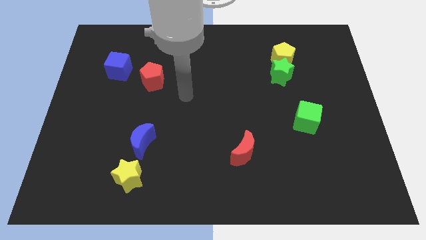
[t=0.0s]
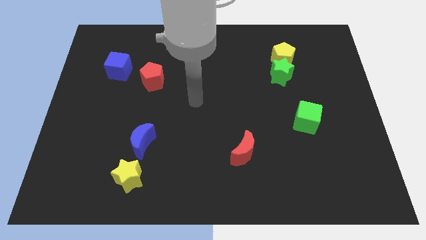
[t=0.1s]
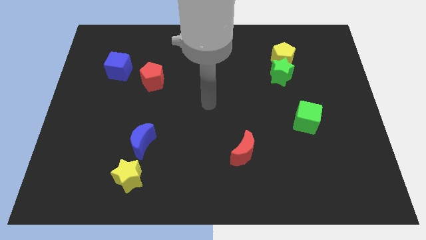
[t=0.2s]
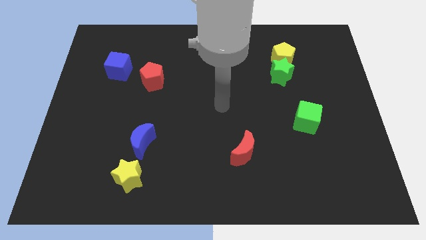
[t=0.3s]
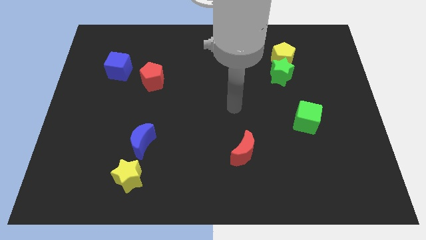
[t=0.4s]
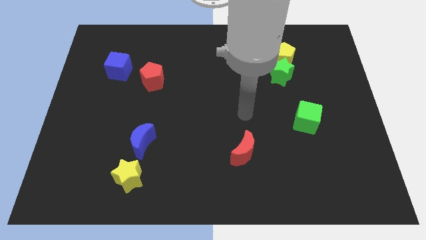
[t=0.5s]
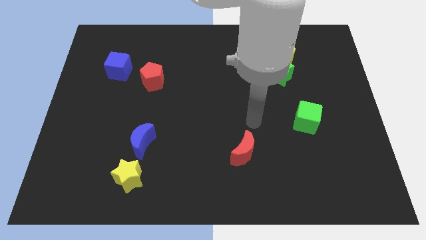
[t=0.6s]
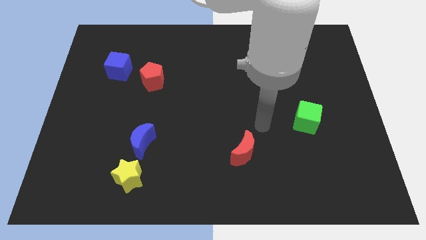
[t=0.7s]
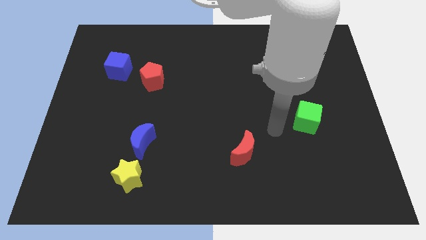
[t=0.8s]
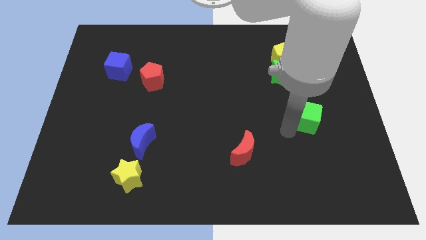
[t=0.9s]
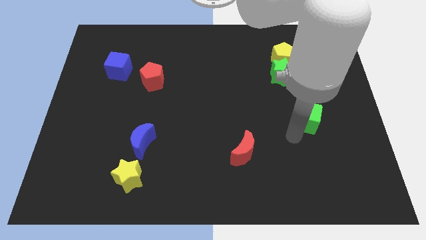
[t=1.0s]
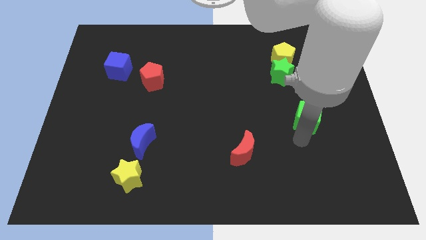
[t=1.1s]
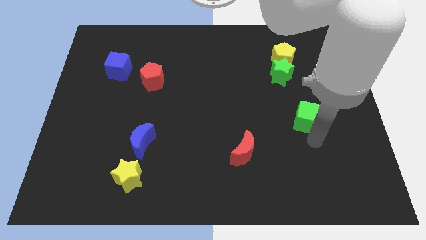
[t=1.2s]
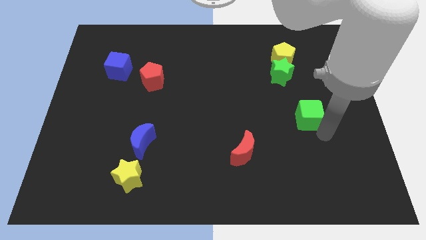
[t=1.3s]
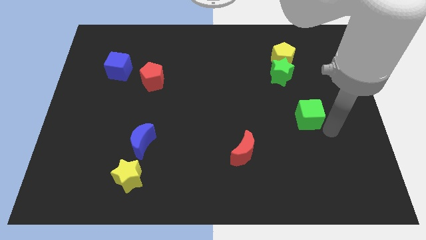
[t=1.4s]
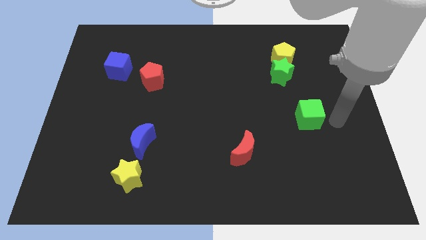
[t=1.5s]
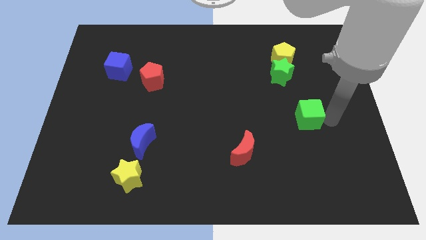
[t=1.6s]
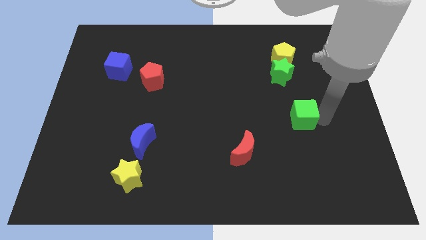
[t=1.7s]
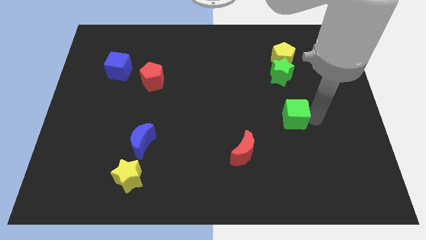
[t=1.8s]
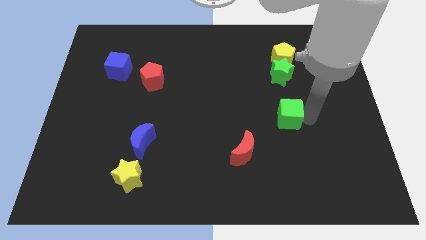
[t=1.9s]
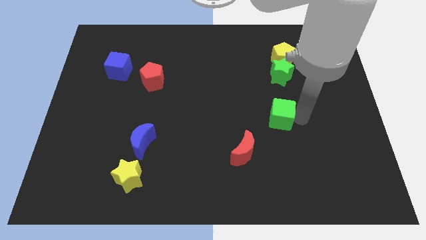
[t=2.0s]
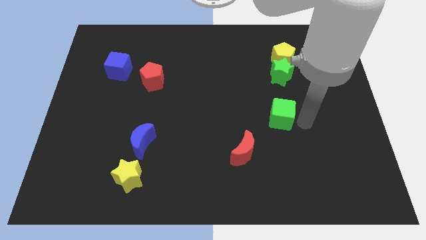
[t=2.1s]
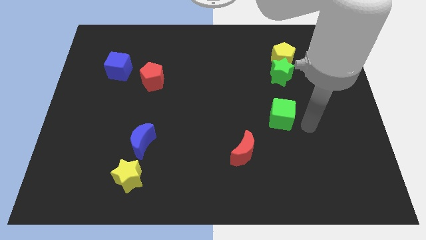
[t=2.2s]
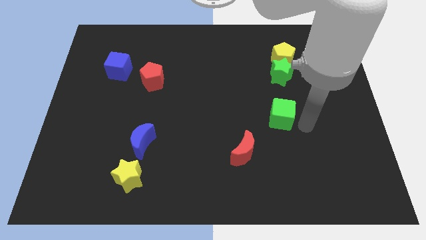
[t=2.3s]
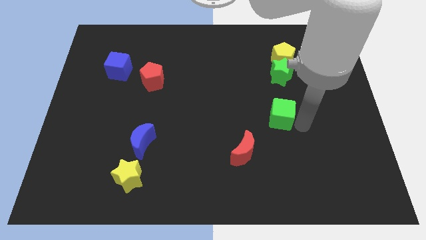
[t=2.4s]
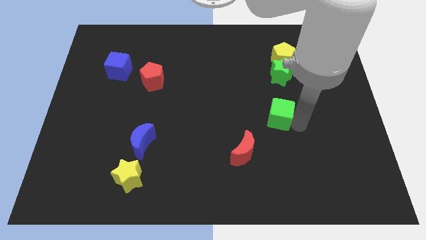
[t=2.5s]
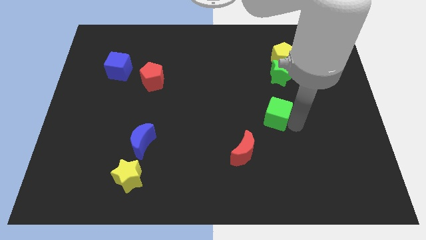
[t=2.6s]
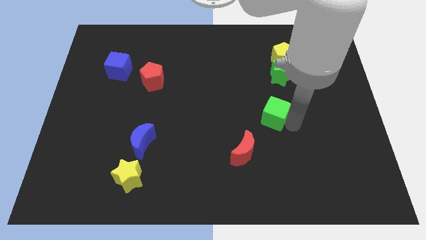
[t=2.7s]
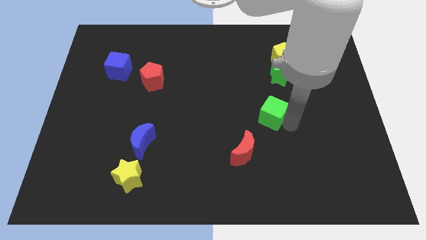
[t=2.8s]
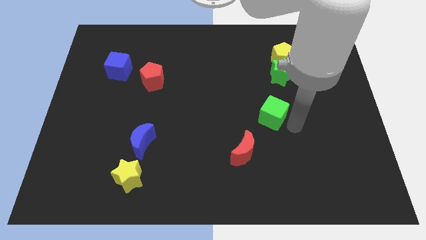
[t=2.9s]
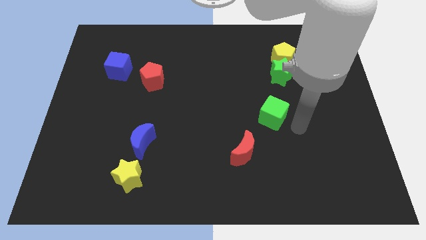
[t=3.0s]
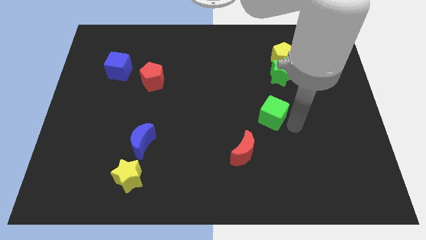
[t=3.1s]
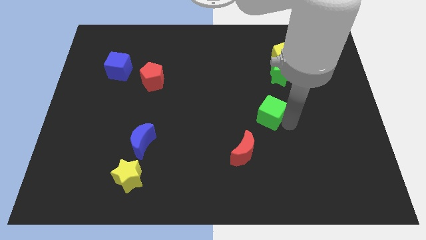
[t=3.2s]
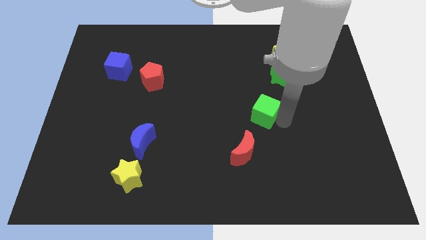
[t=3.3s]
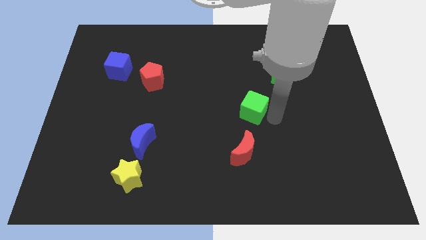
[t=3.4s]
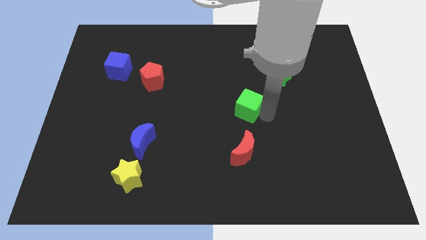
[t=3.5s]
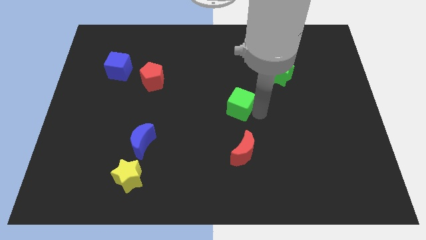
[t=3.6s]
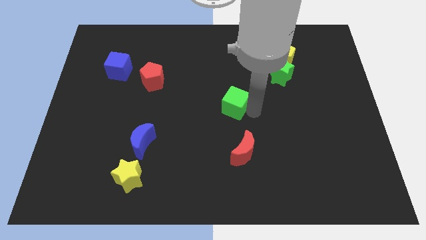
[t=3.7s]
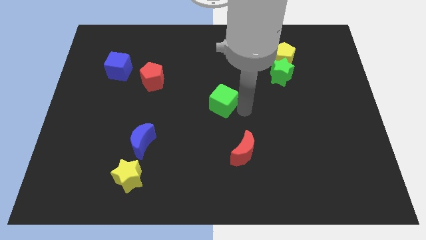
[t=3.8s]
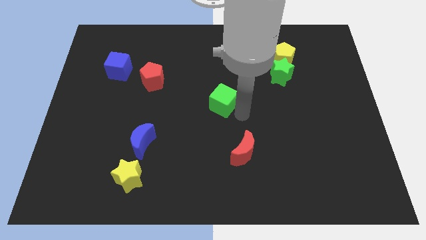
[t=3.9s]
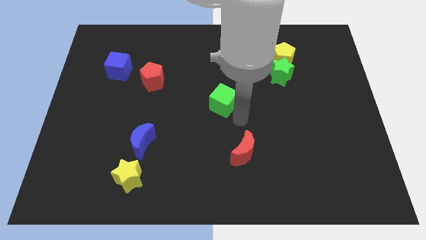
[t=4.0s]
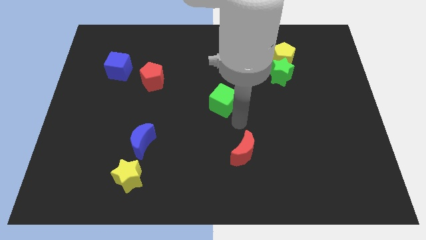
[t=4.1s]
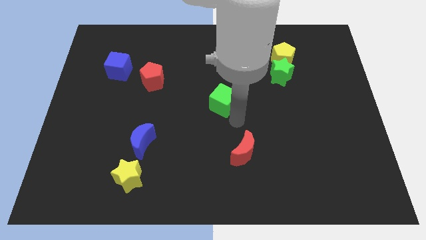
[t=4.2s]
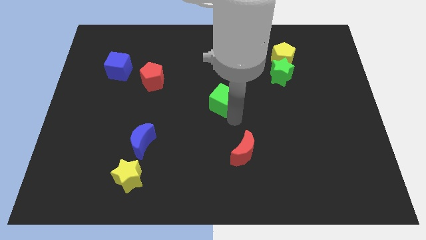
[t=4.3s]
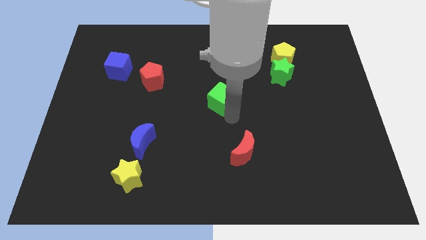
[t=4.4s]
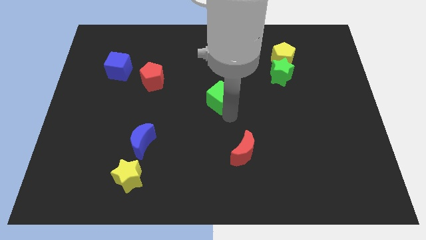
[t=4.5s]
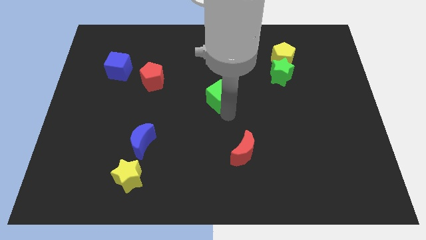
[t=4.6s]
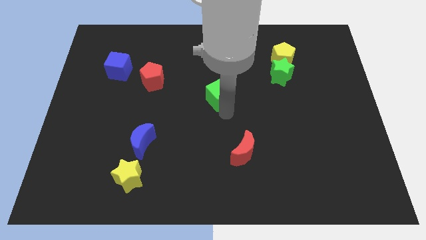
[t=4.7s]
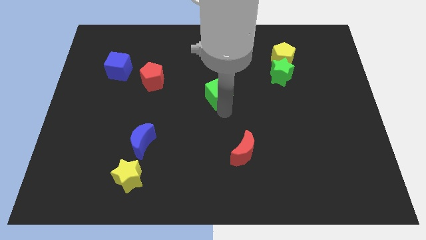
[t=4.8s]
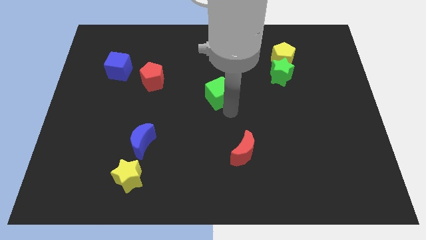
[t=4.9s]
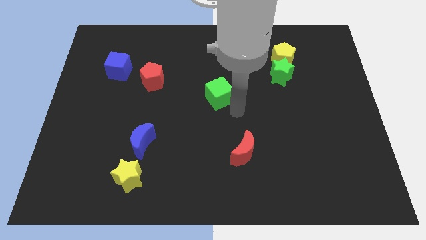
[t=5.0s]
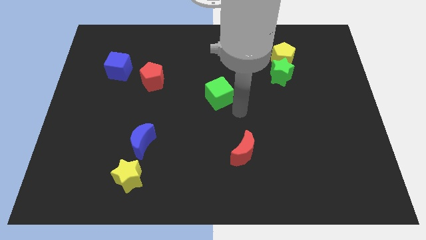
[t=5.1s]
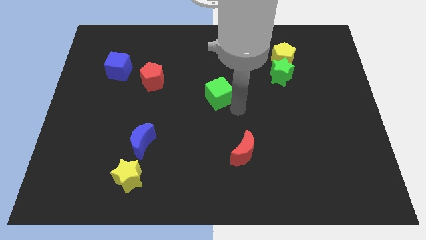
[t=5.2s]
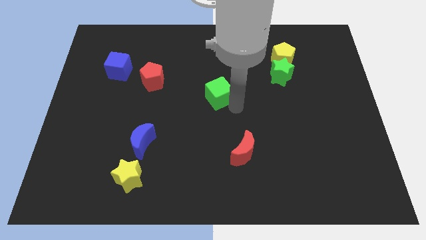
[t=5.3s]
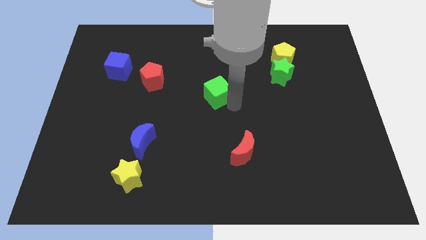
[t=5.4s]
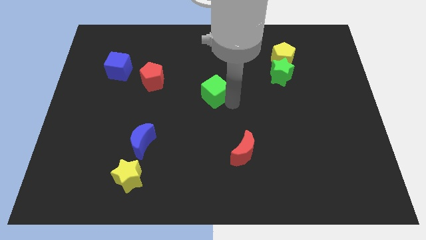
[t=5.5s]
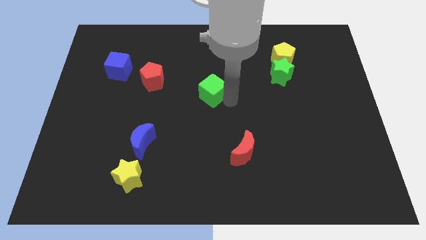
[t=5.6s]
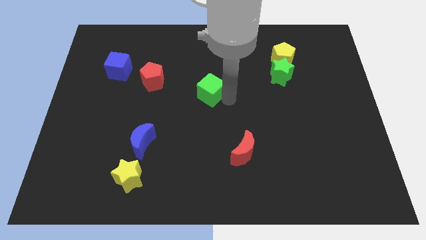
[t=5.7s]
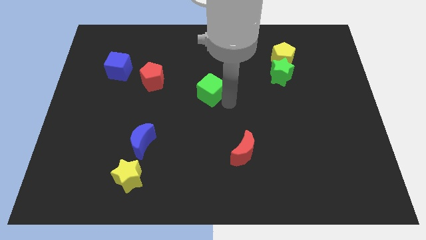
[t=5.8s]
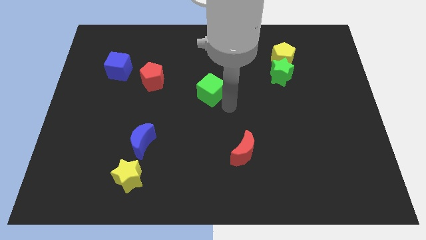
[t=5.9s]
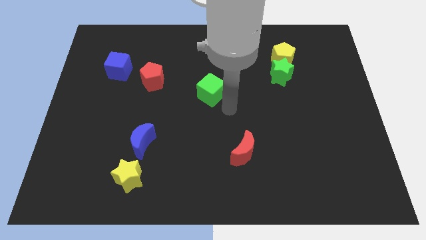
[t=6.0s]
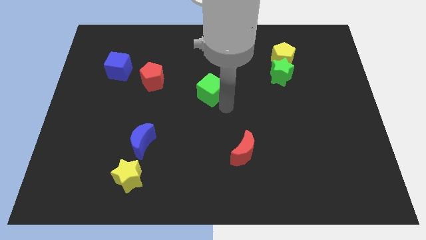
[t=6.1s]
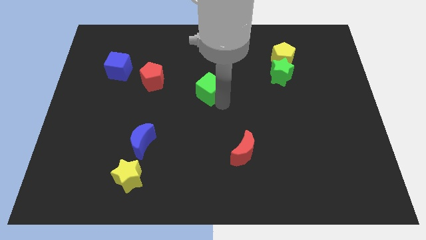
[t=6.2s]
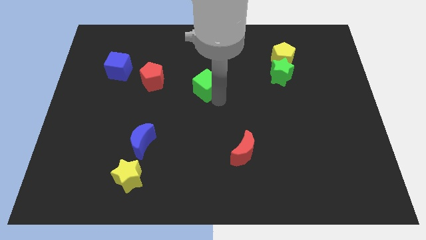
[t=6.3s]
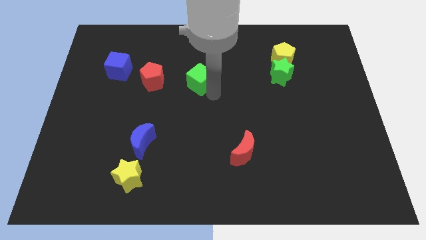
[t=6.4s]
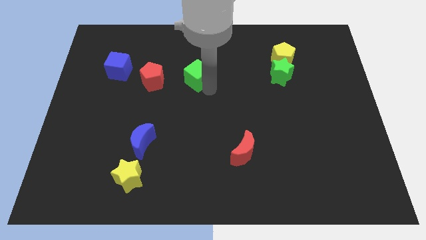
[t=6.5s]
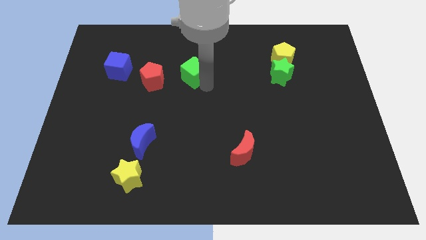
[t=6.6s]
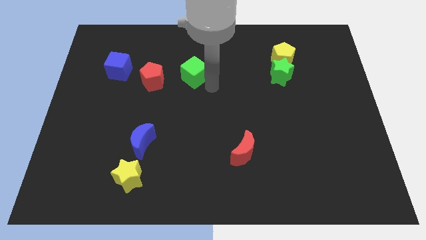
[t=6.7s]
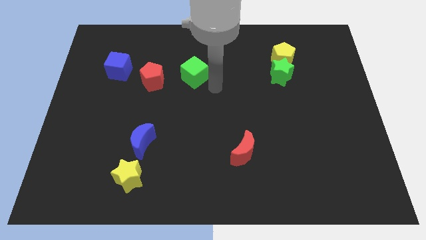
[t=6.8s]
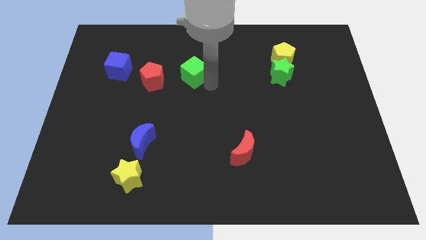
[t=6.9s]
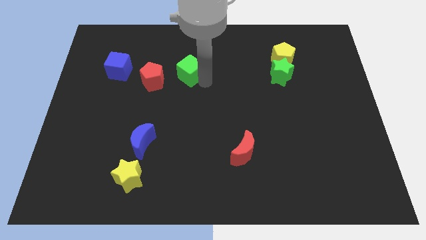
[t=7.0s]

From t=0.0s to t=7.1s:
slide the green cube diagonally up and to the right of the red pentagon

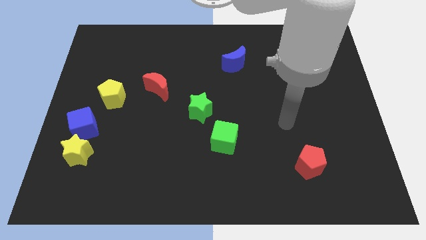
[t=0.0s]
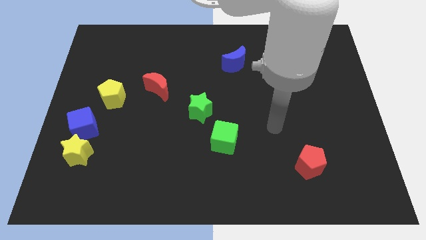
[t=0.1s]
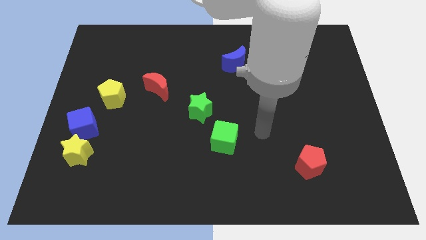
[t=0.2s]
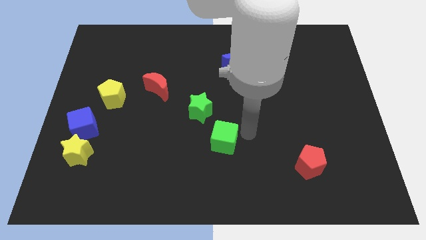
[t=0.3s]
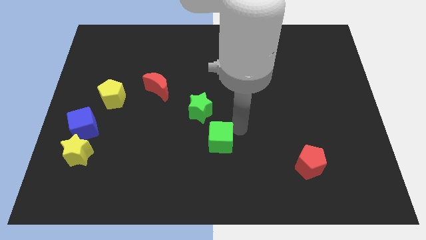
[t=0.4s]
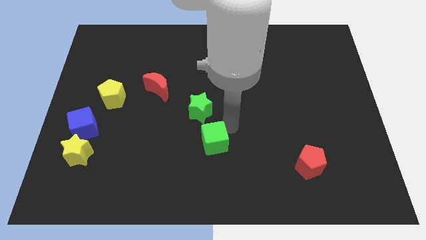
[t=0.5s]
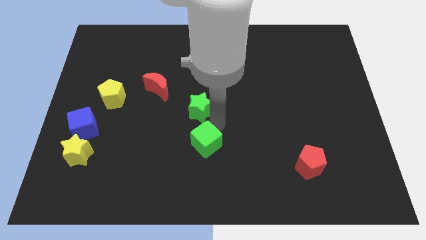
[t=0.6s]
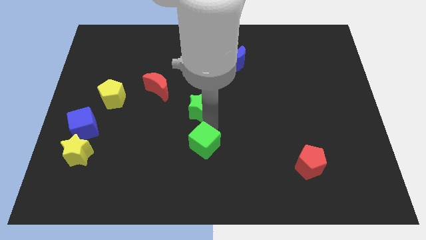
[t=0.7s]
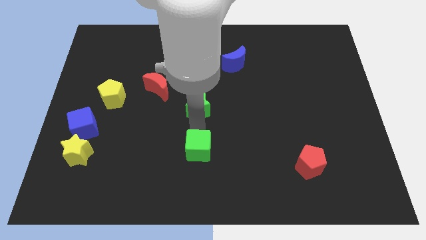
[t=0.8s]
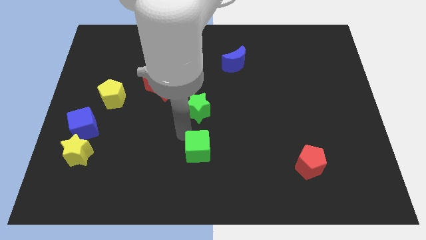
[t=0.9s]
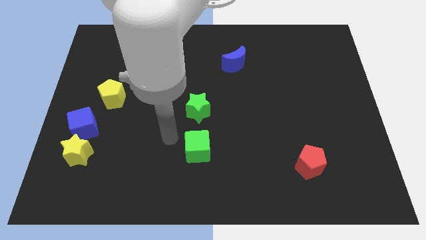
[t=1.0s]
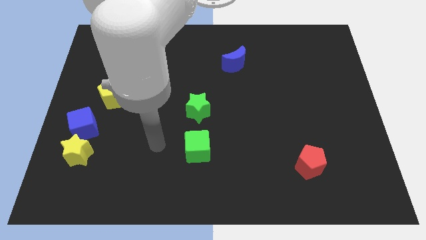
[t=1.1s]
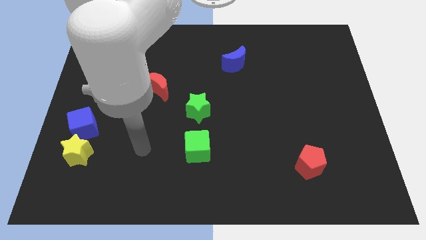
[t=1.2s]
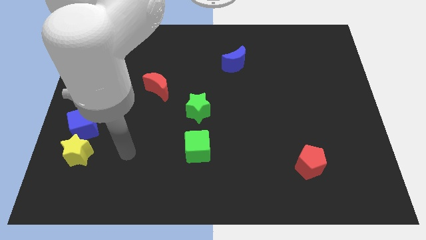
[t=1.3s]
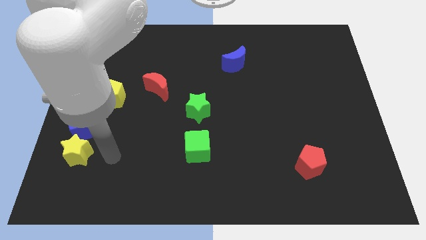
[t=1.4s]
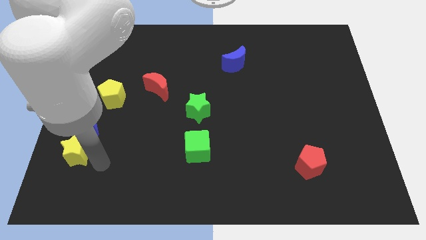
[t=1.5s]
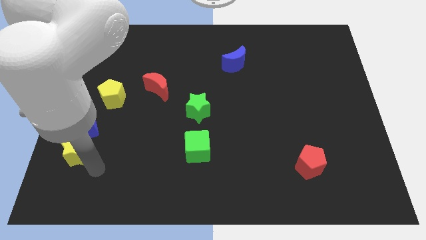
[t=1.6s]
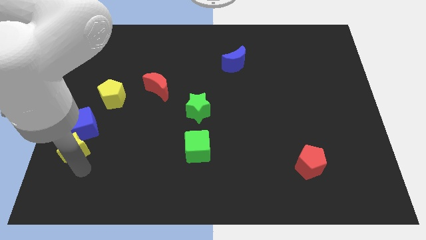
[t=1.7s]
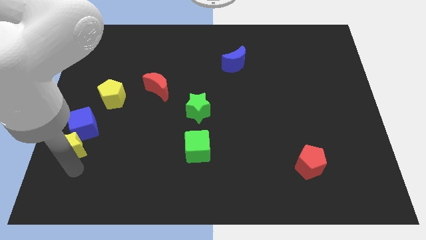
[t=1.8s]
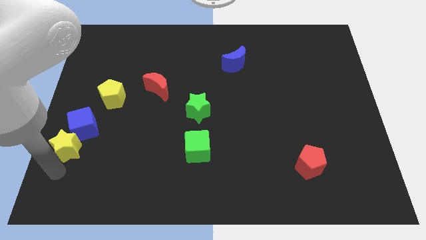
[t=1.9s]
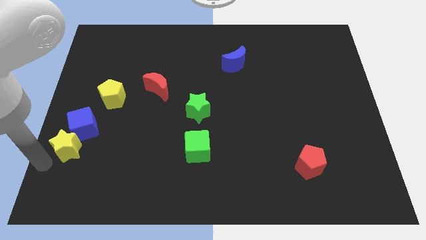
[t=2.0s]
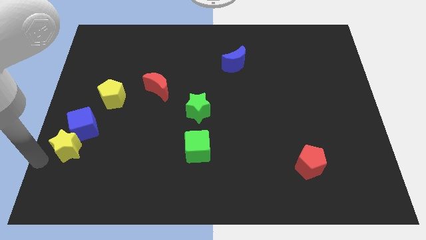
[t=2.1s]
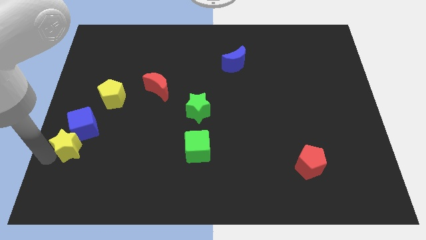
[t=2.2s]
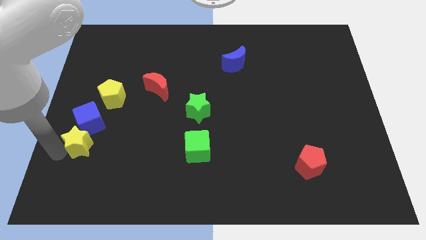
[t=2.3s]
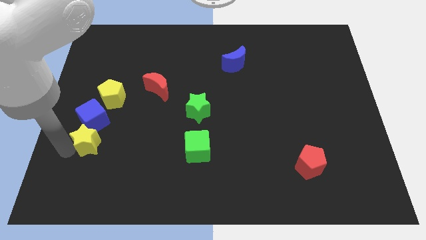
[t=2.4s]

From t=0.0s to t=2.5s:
slide the yellow star below the yellow pentagon
